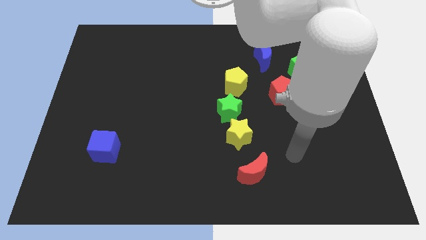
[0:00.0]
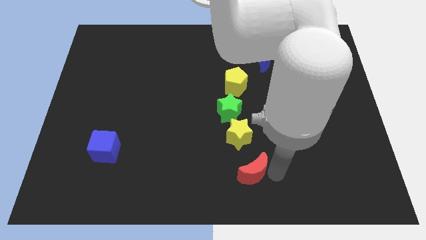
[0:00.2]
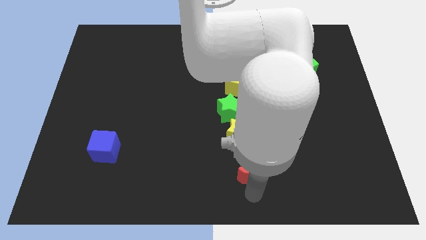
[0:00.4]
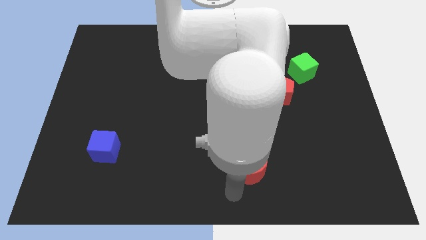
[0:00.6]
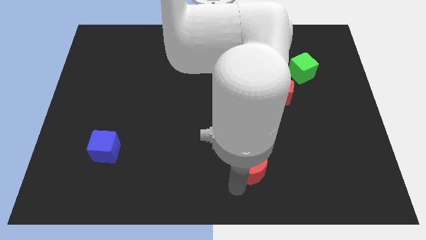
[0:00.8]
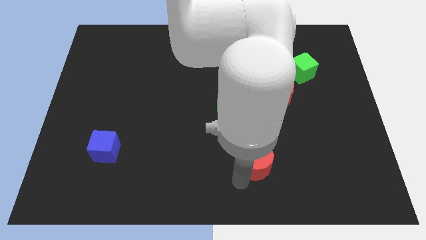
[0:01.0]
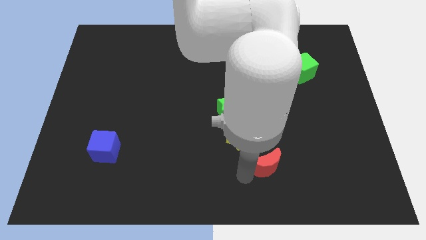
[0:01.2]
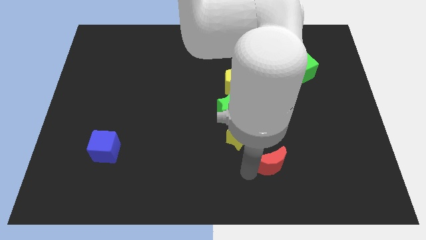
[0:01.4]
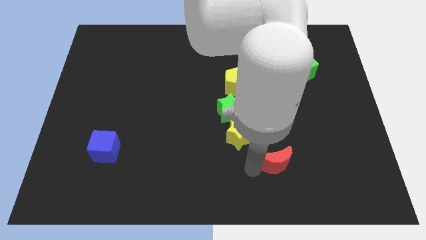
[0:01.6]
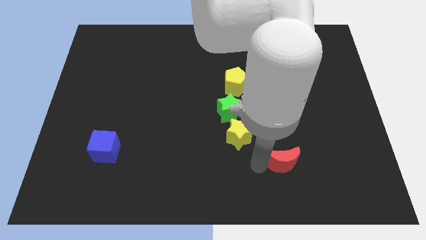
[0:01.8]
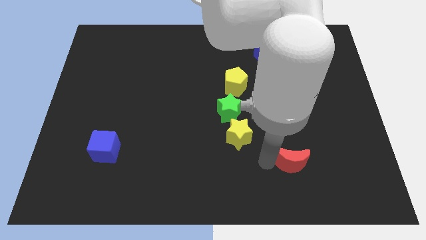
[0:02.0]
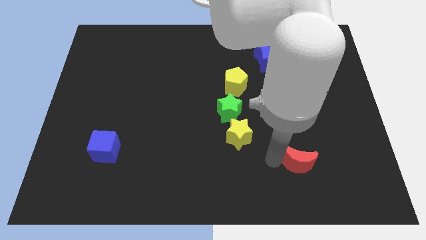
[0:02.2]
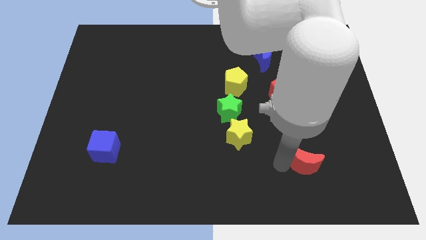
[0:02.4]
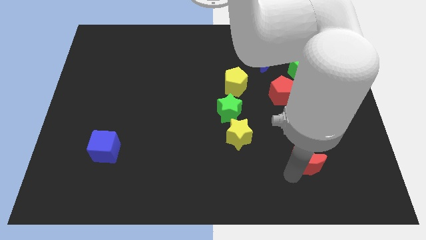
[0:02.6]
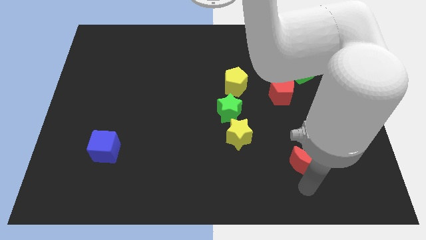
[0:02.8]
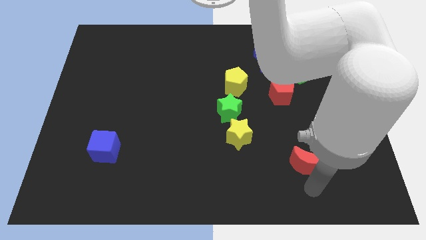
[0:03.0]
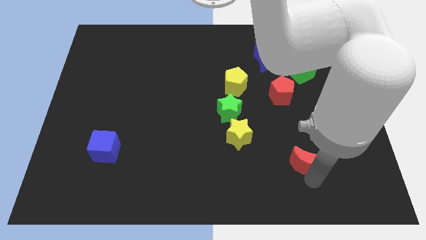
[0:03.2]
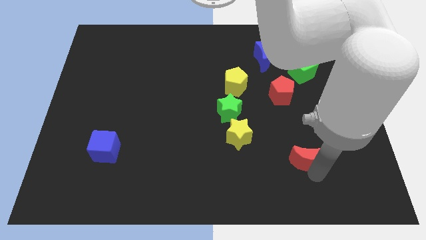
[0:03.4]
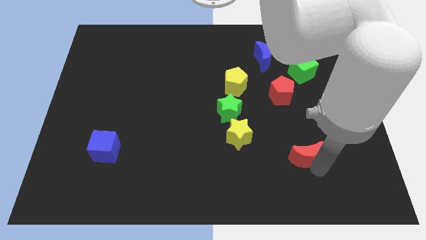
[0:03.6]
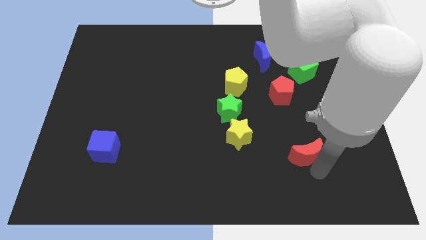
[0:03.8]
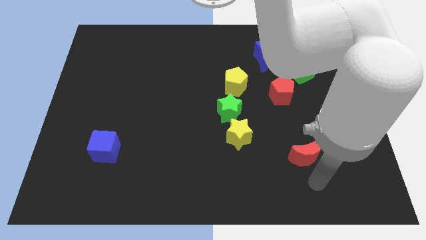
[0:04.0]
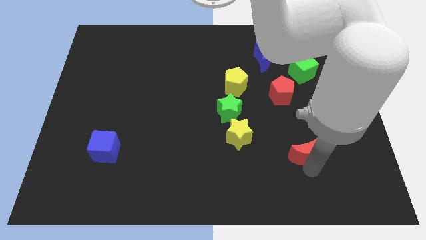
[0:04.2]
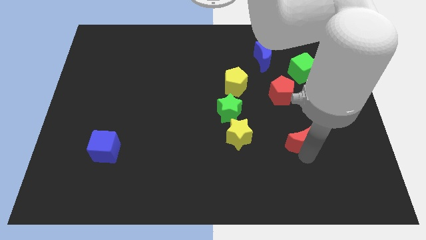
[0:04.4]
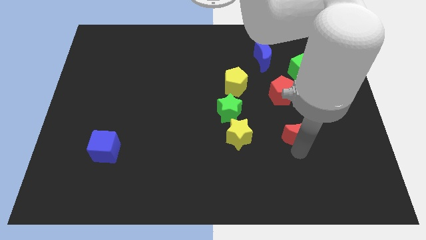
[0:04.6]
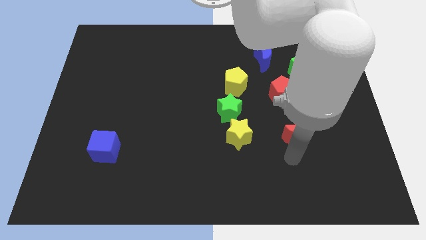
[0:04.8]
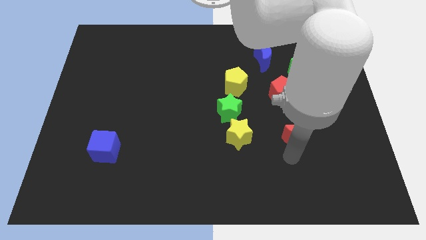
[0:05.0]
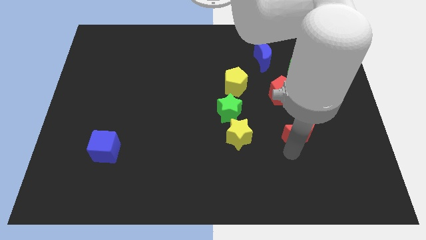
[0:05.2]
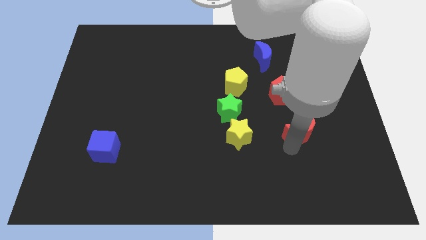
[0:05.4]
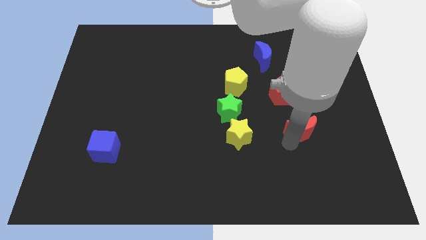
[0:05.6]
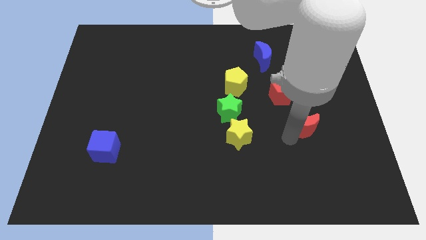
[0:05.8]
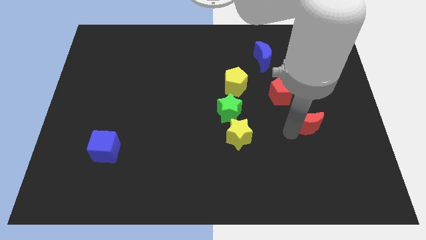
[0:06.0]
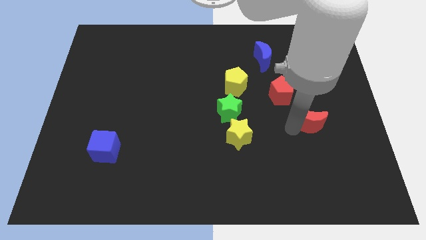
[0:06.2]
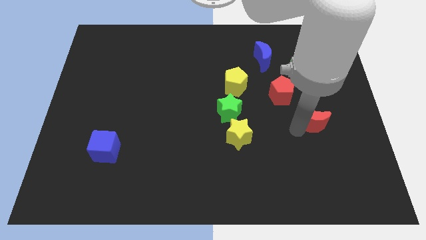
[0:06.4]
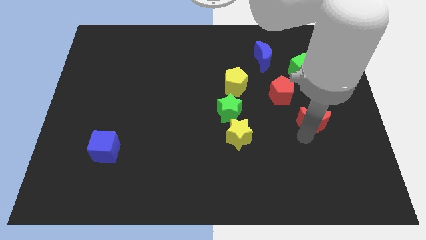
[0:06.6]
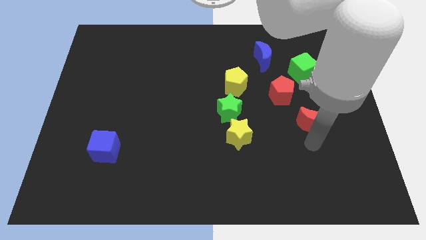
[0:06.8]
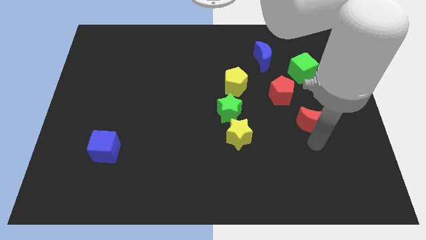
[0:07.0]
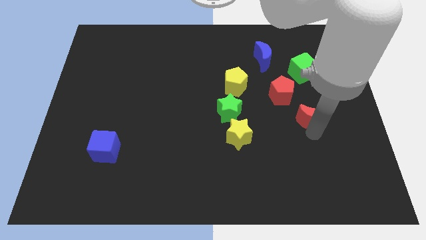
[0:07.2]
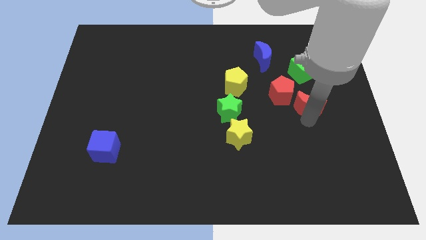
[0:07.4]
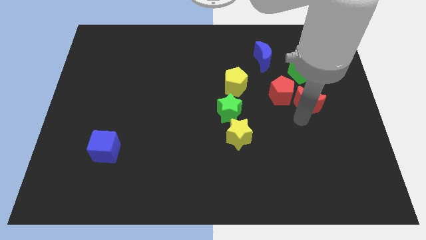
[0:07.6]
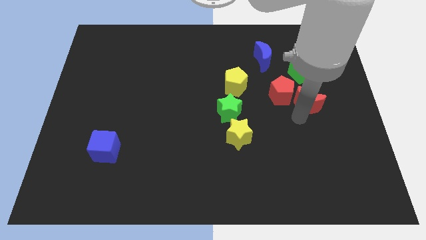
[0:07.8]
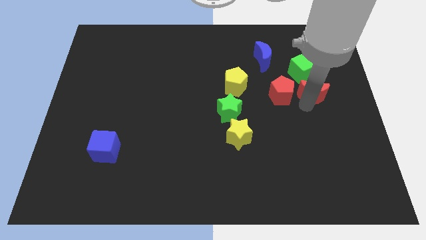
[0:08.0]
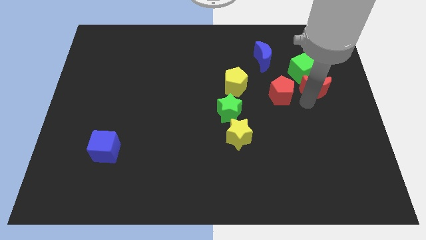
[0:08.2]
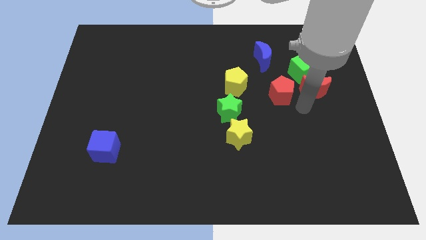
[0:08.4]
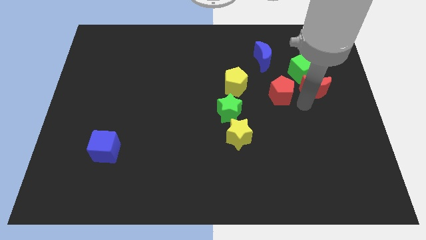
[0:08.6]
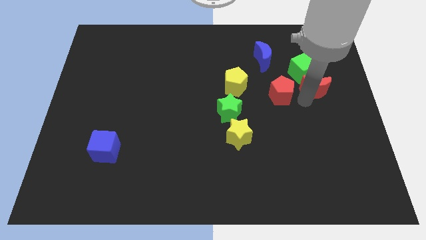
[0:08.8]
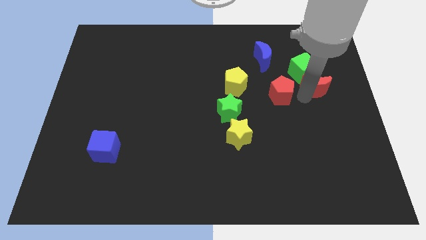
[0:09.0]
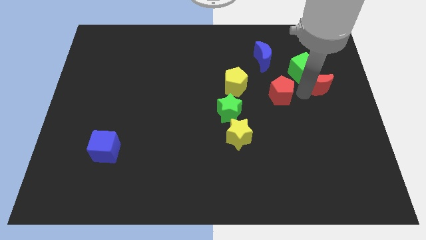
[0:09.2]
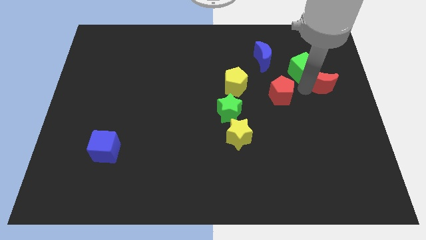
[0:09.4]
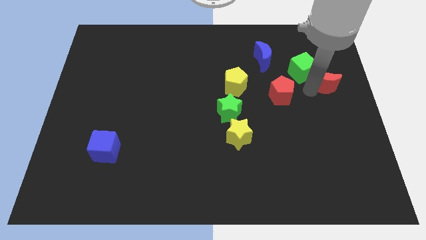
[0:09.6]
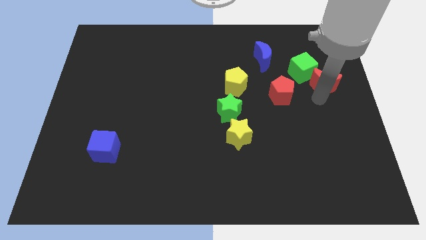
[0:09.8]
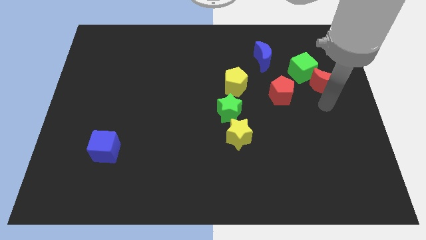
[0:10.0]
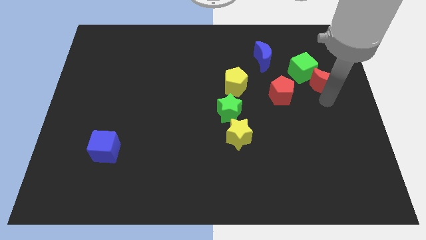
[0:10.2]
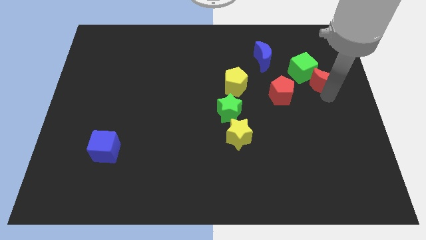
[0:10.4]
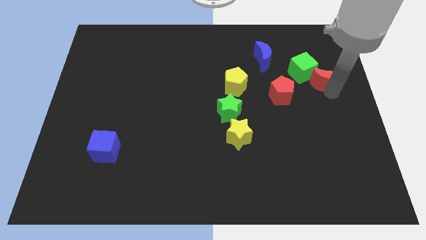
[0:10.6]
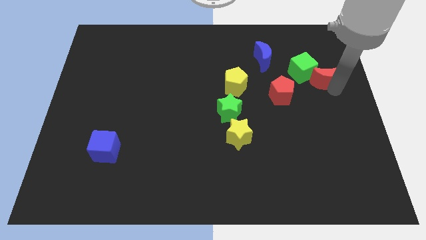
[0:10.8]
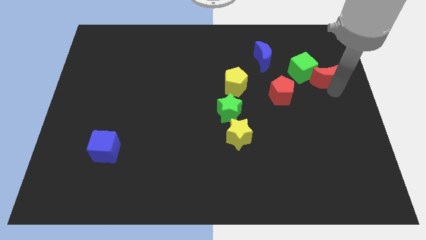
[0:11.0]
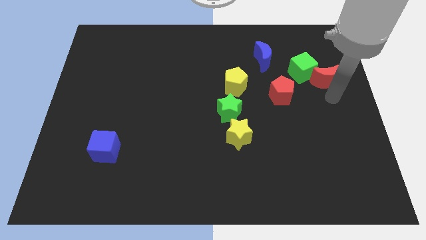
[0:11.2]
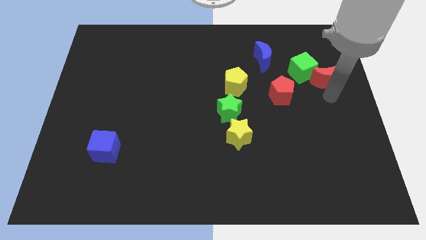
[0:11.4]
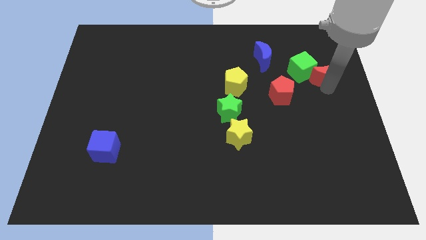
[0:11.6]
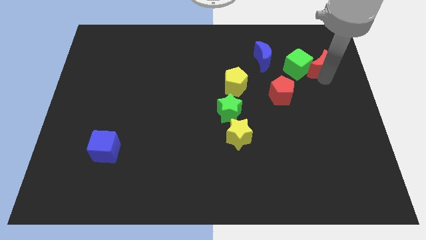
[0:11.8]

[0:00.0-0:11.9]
put the red moon to the top right side of the green cube

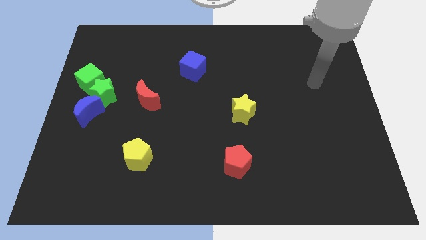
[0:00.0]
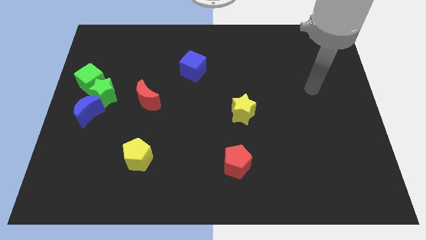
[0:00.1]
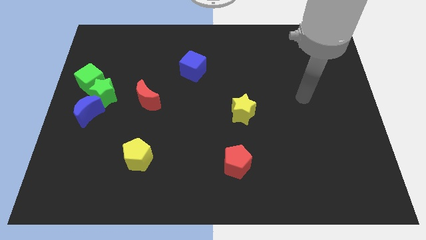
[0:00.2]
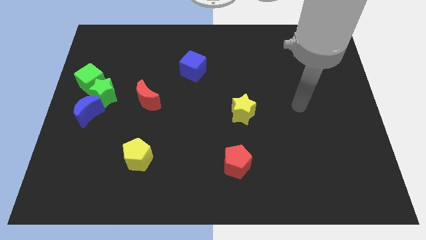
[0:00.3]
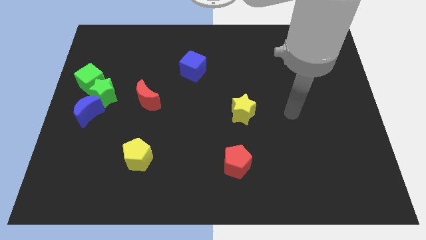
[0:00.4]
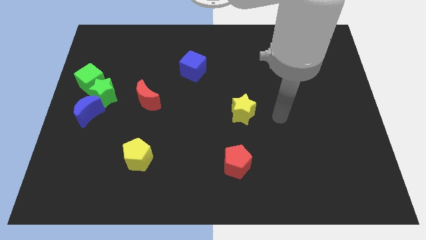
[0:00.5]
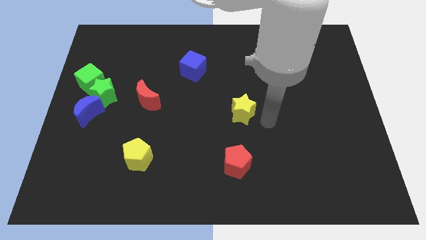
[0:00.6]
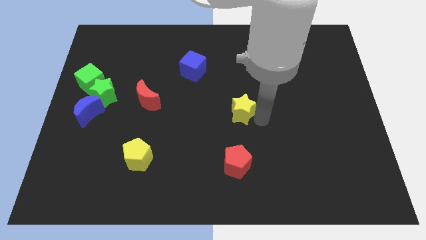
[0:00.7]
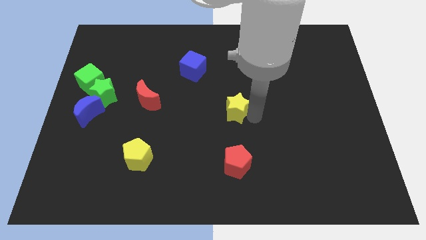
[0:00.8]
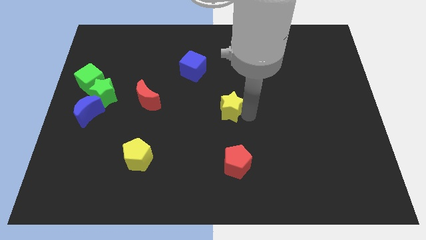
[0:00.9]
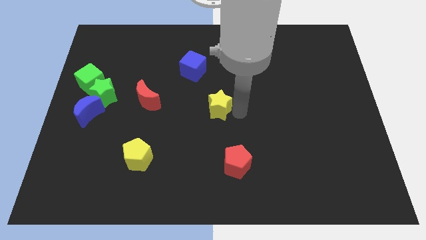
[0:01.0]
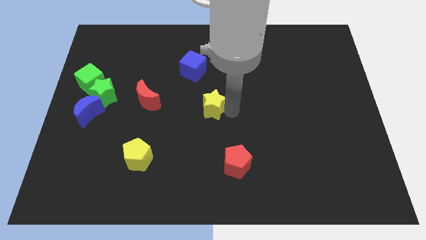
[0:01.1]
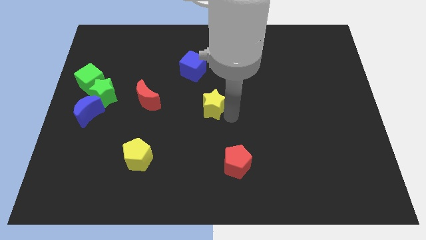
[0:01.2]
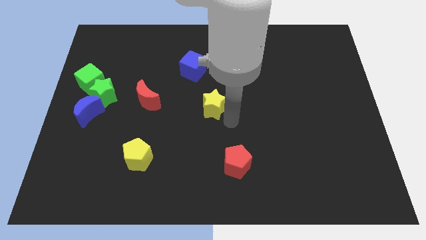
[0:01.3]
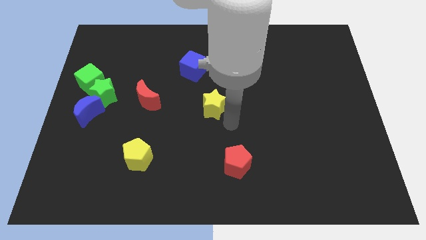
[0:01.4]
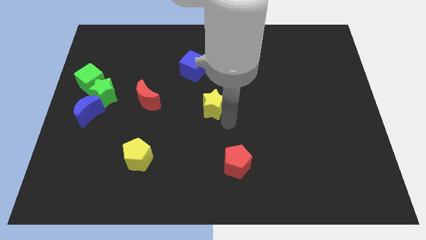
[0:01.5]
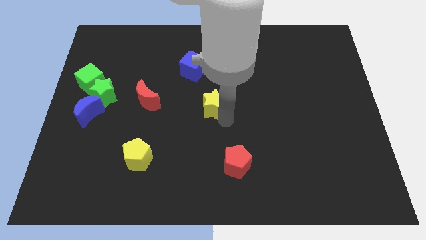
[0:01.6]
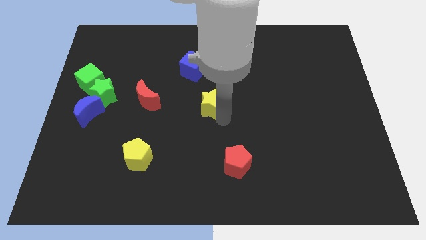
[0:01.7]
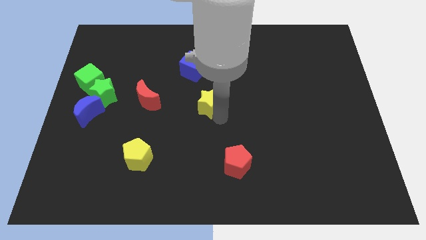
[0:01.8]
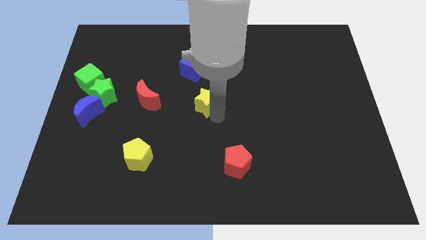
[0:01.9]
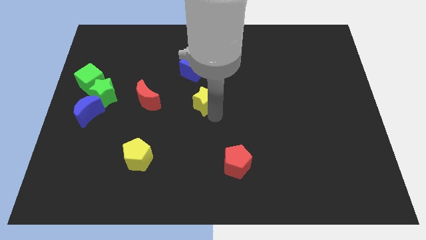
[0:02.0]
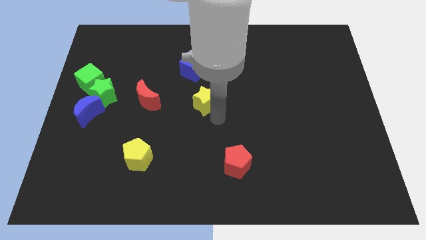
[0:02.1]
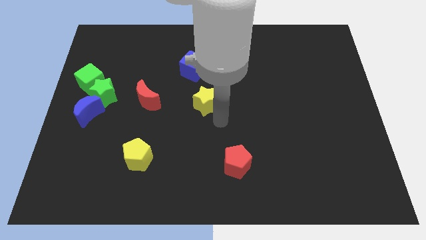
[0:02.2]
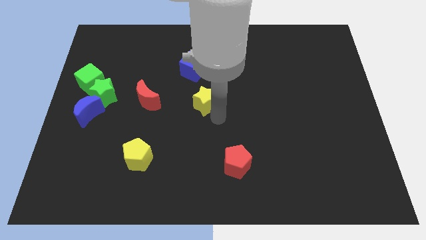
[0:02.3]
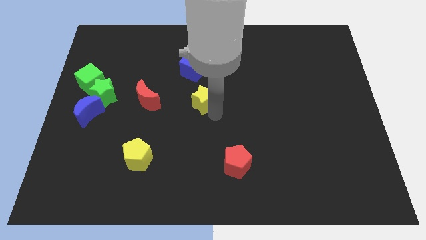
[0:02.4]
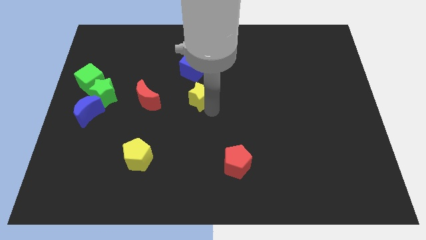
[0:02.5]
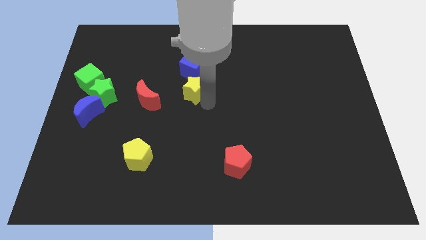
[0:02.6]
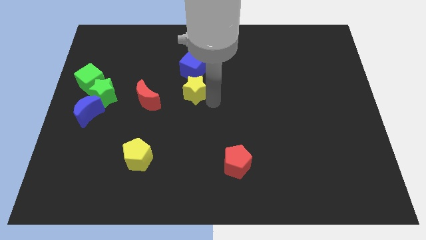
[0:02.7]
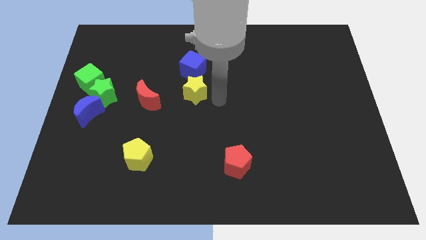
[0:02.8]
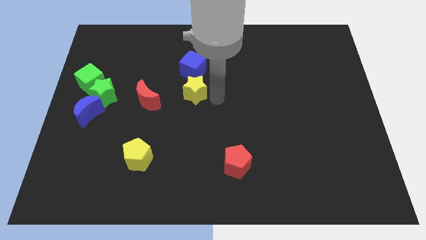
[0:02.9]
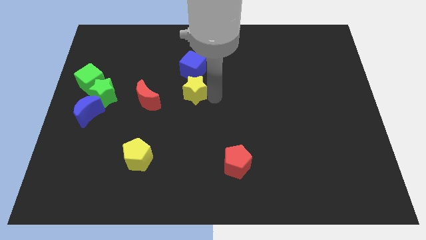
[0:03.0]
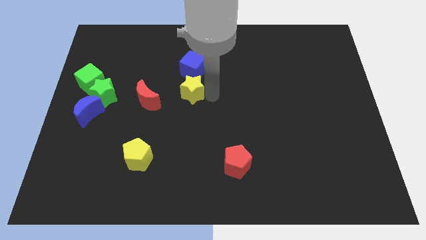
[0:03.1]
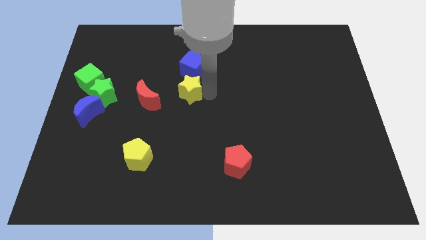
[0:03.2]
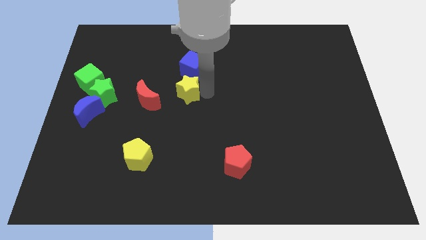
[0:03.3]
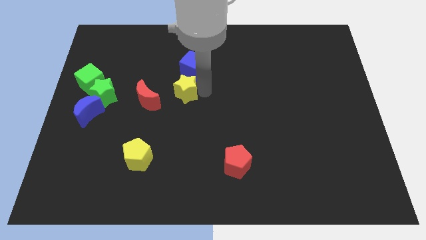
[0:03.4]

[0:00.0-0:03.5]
push the yellow star to the top right side of the red moon
